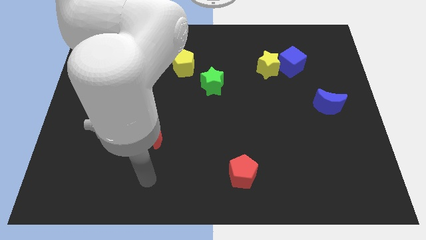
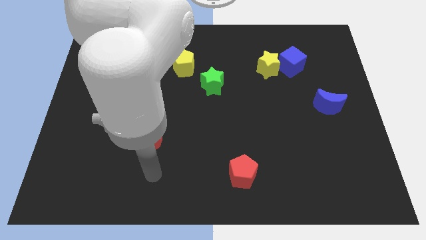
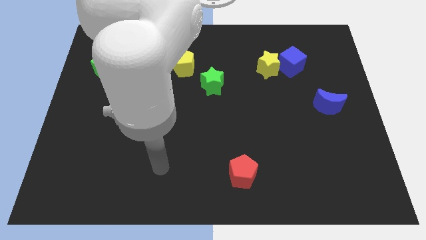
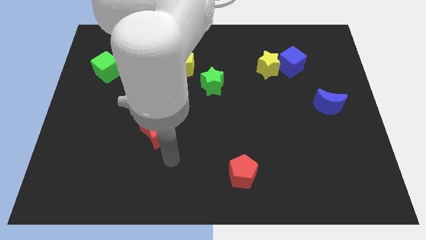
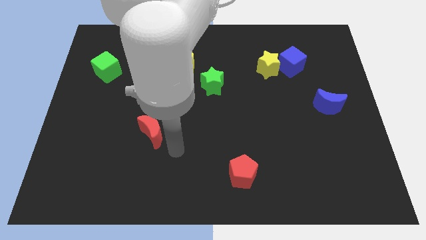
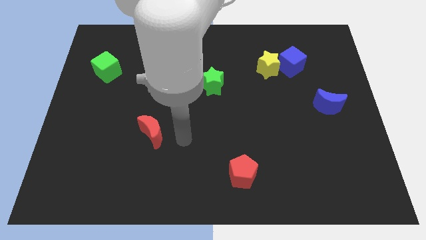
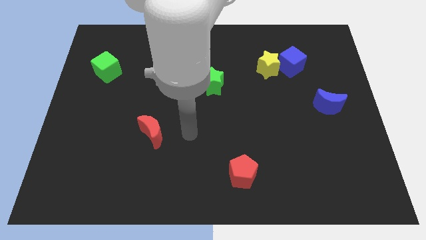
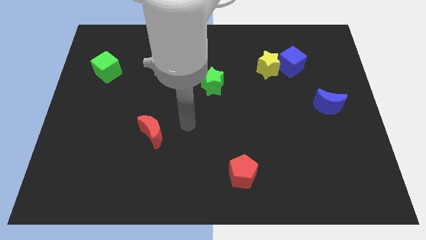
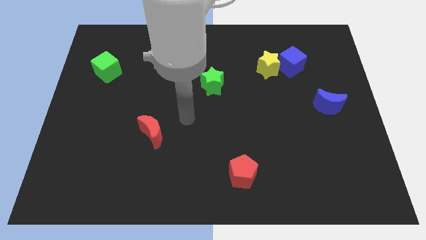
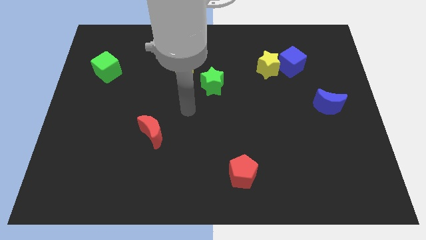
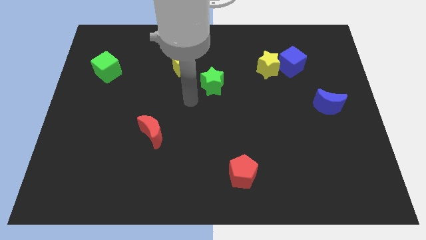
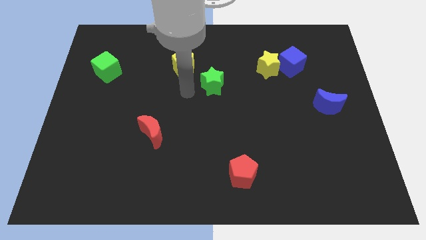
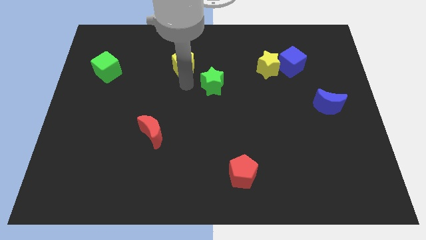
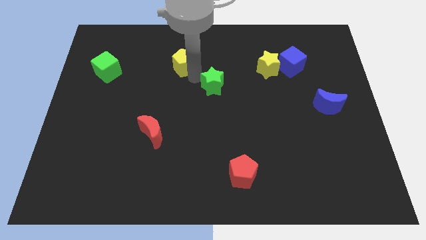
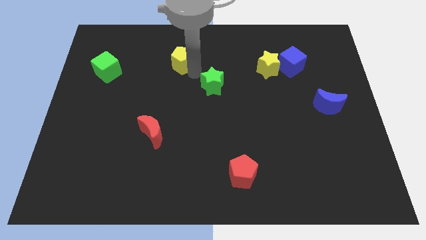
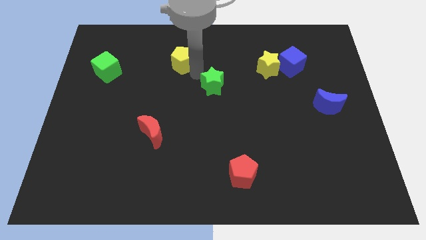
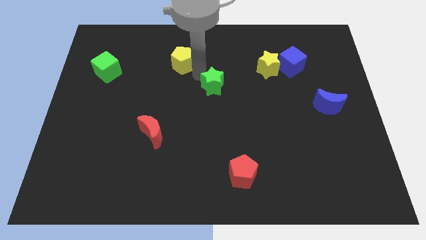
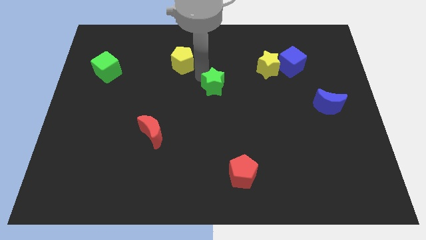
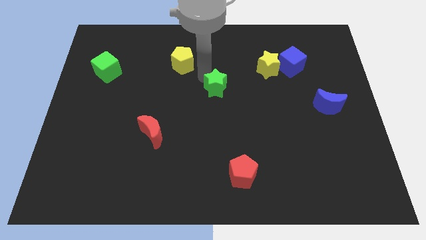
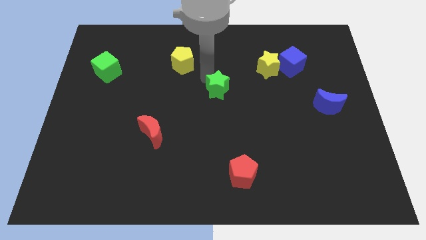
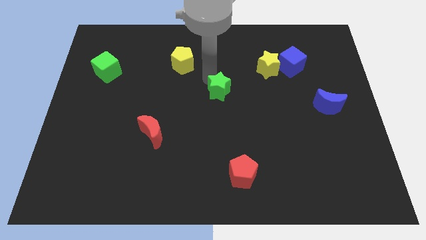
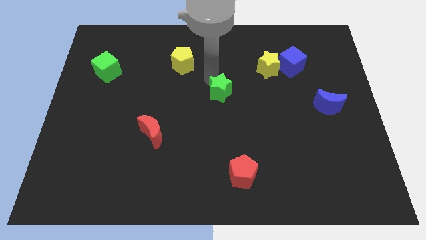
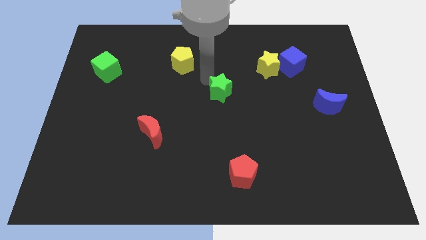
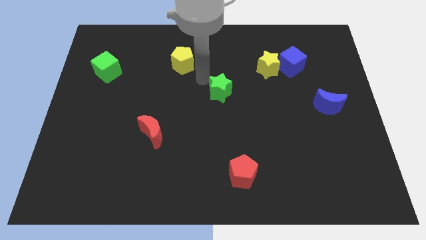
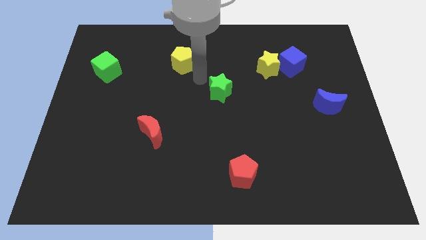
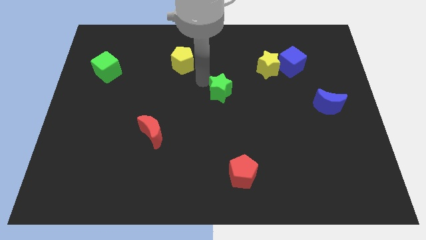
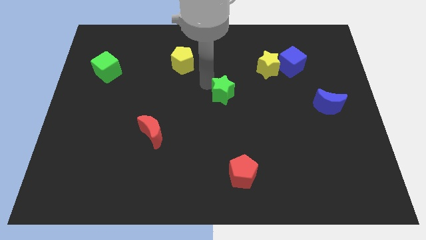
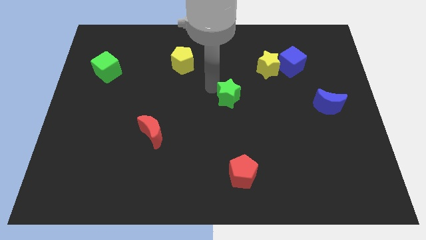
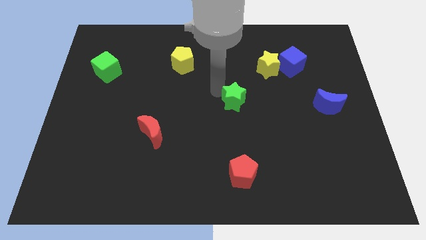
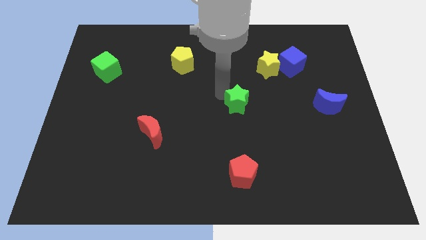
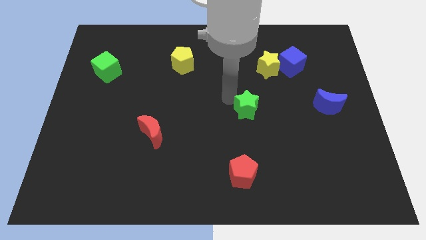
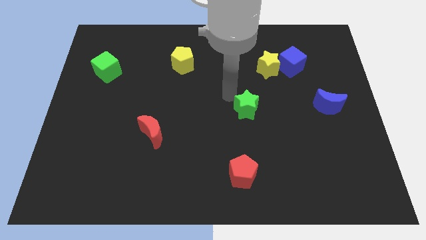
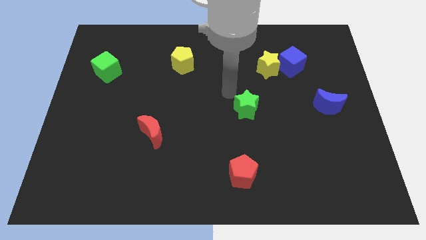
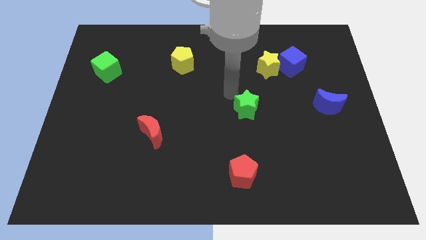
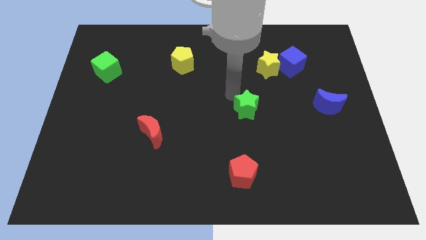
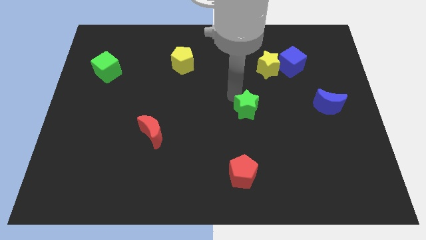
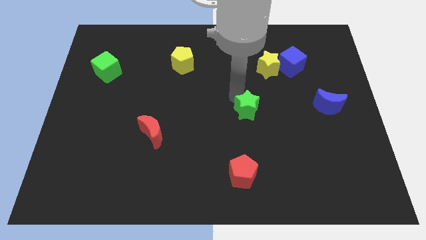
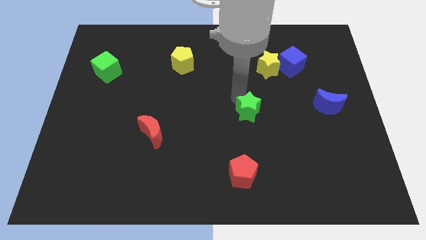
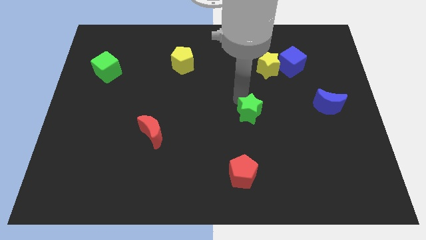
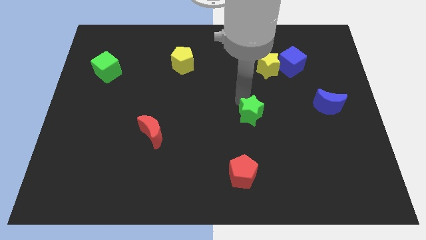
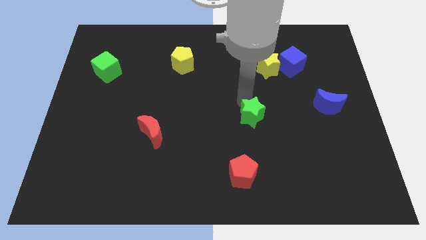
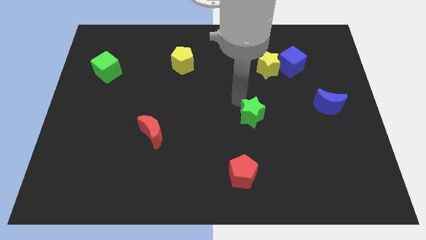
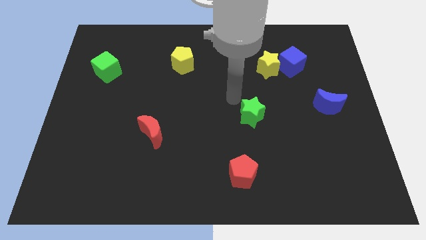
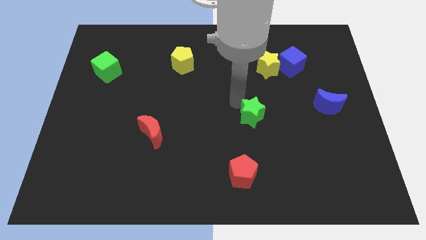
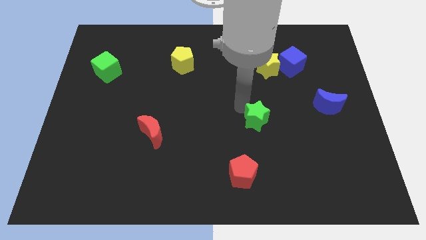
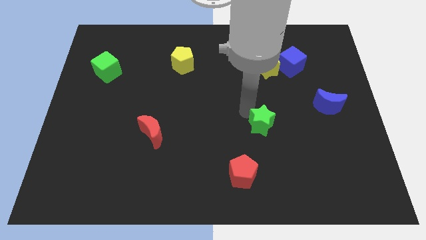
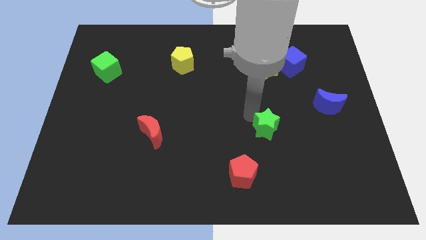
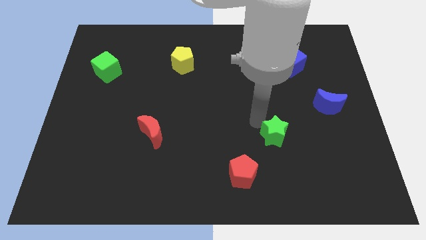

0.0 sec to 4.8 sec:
push the green star downwards and then to the right

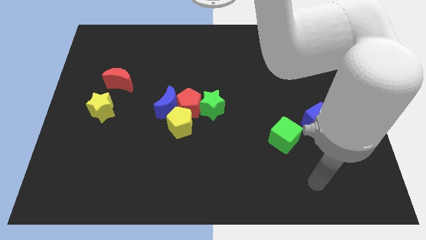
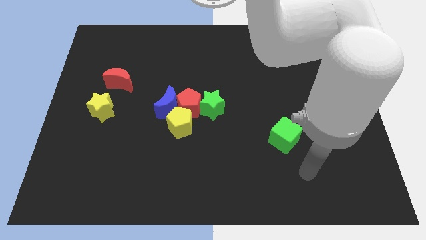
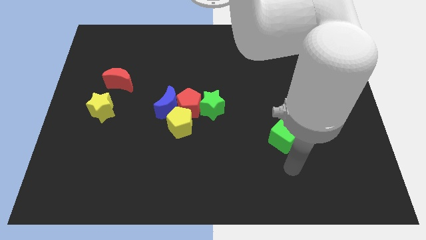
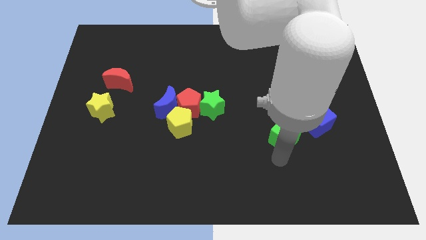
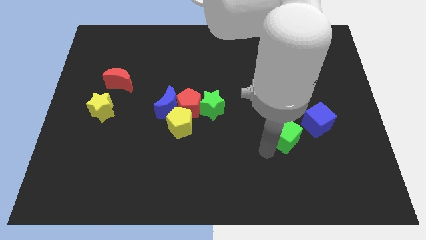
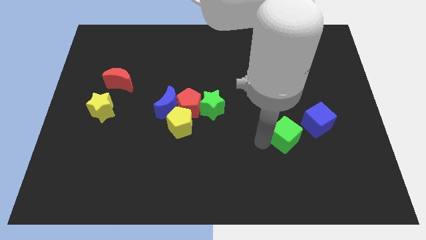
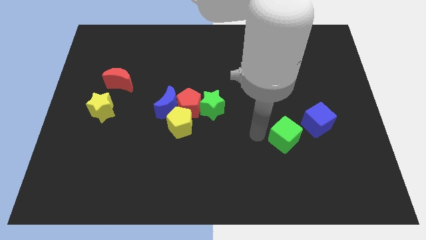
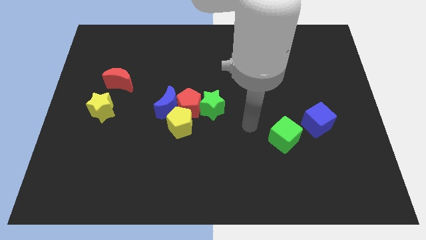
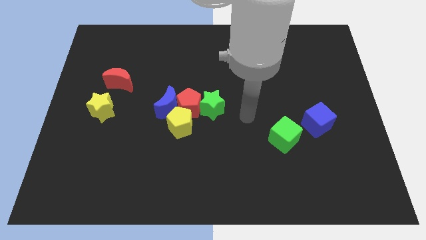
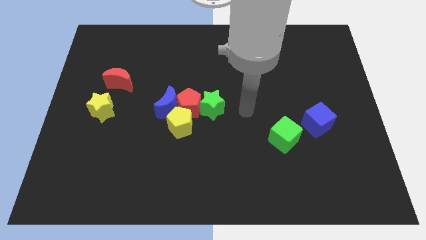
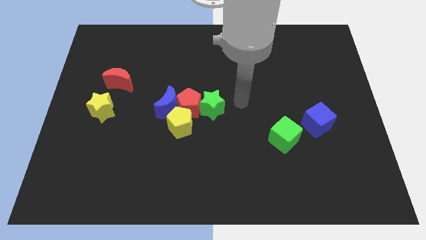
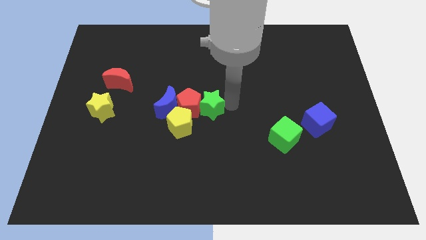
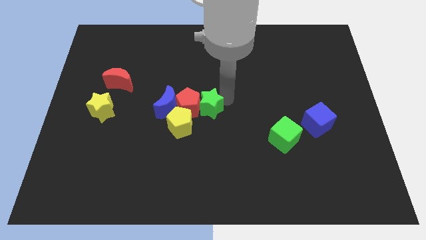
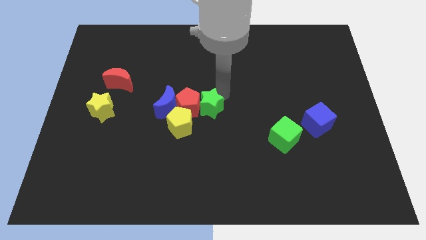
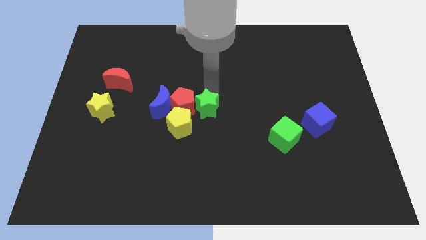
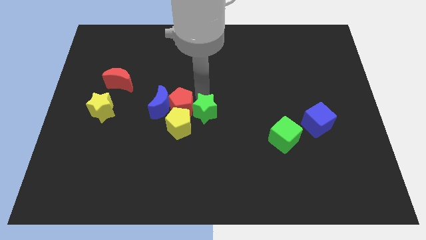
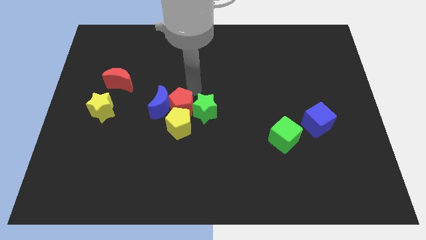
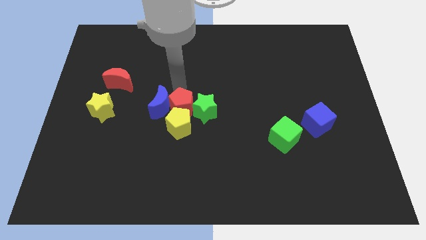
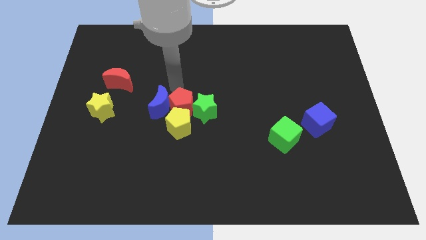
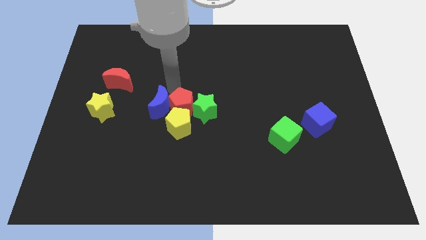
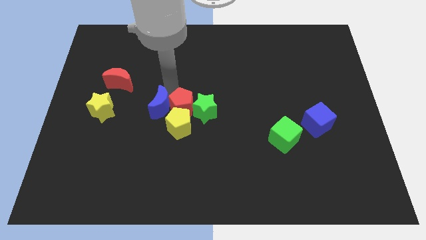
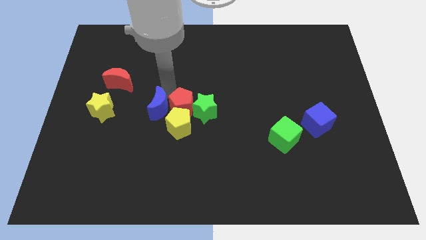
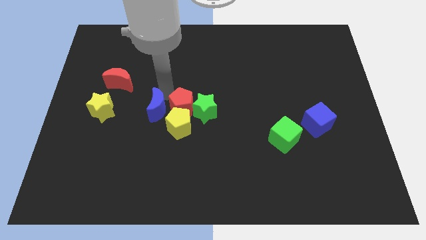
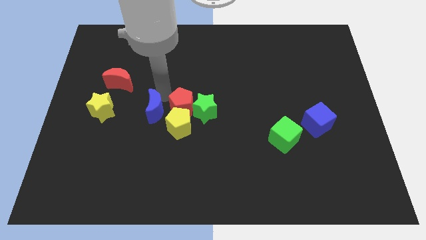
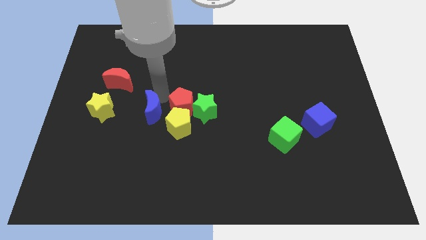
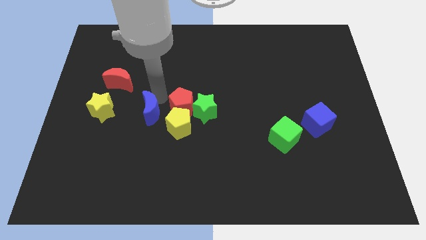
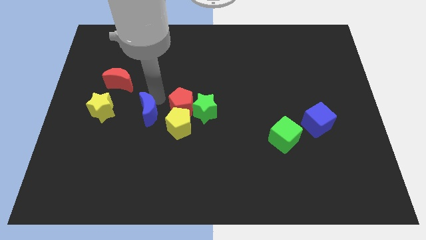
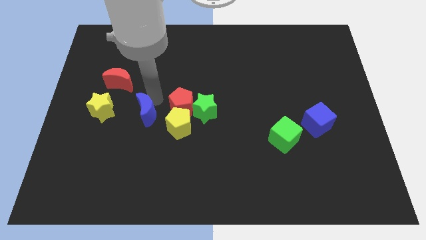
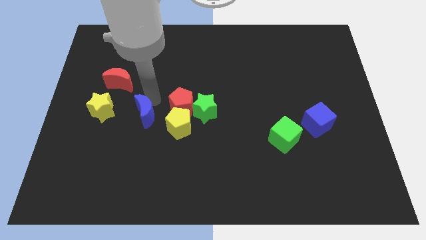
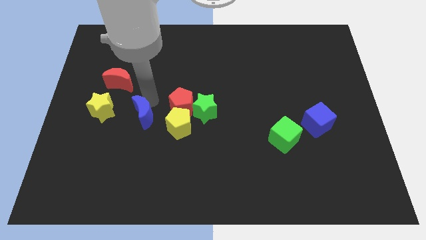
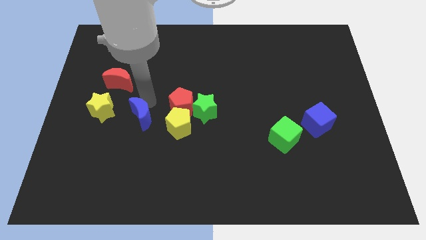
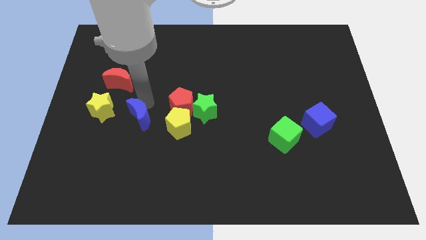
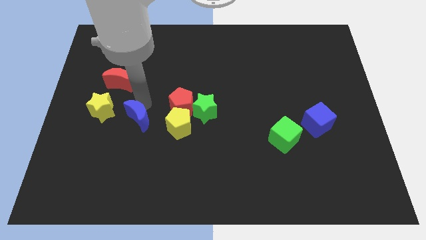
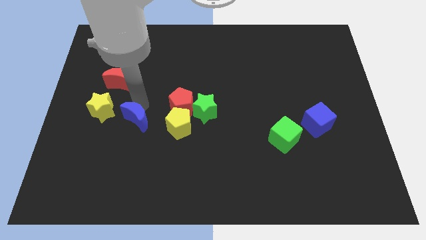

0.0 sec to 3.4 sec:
slightly push the blue moon down and left diagonally
